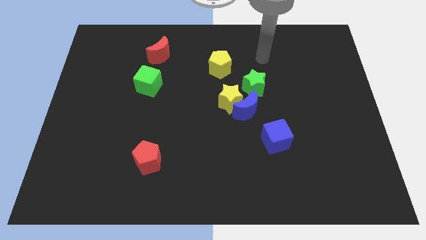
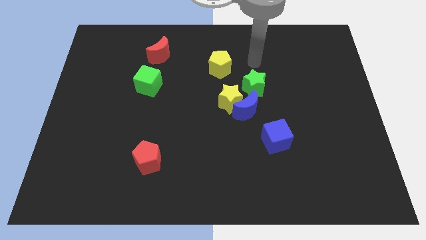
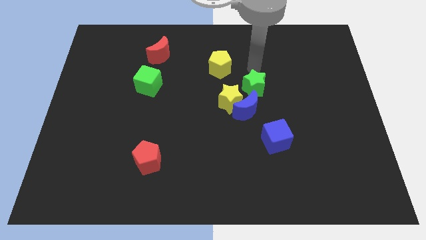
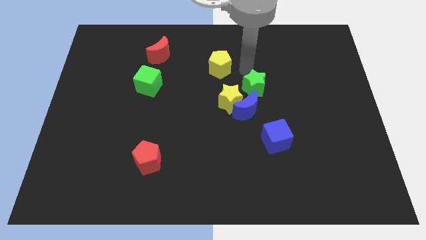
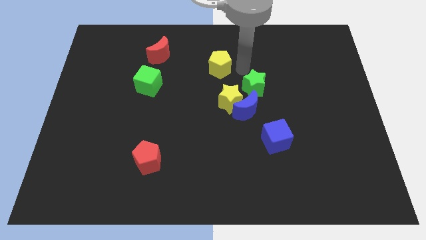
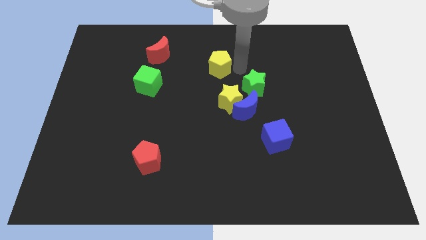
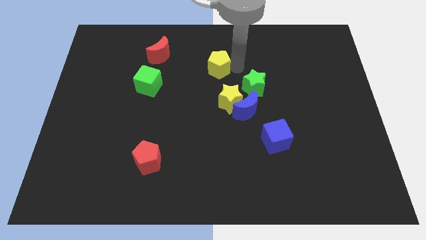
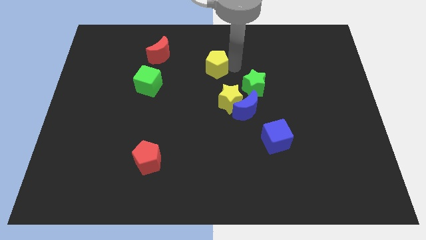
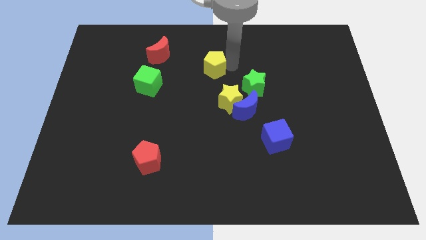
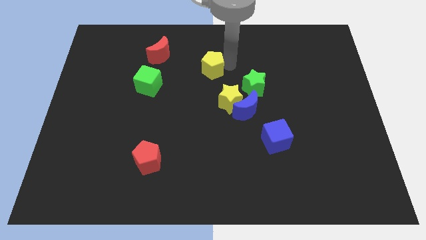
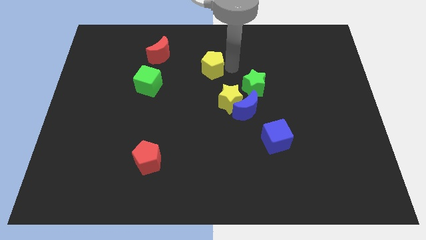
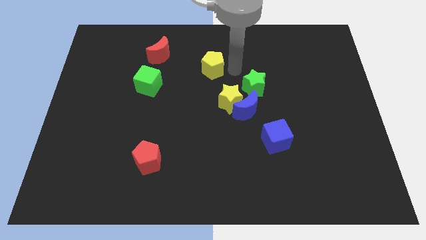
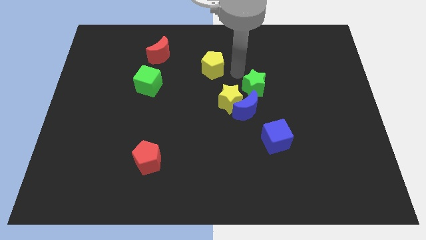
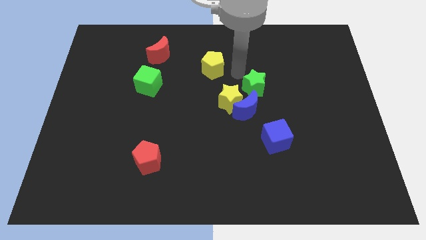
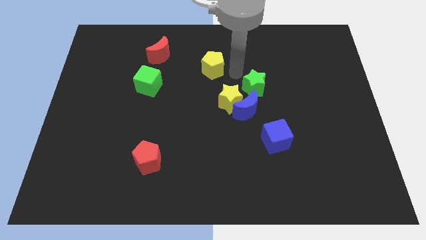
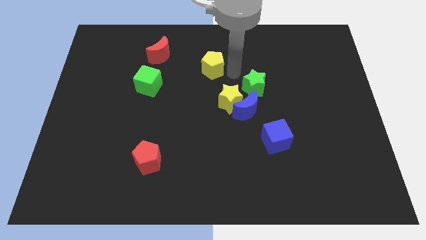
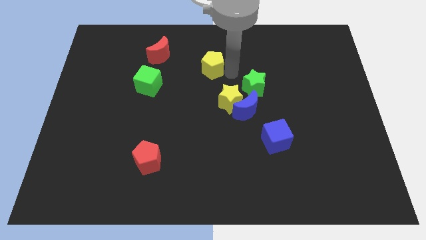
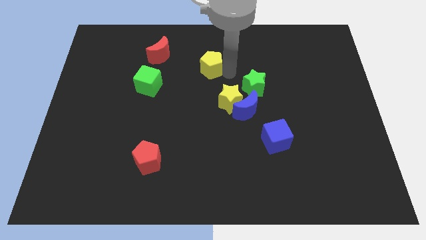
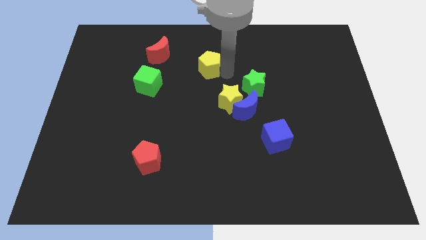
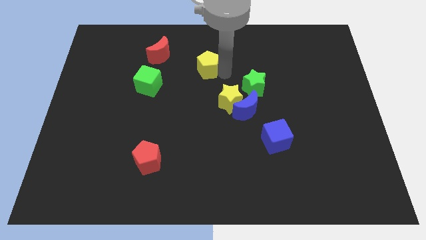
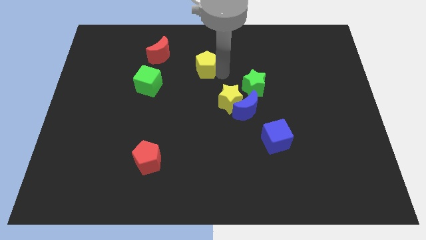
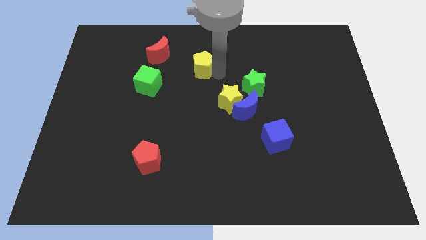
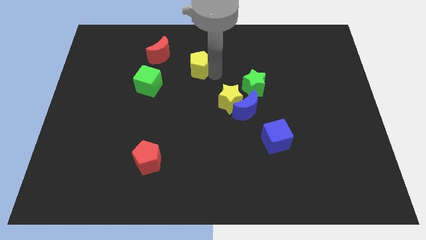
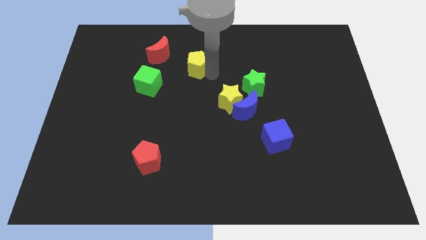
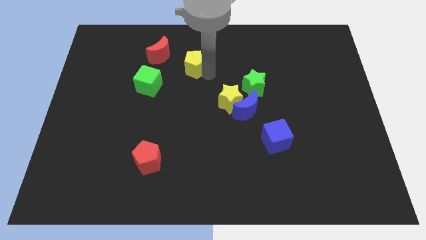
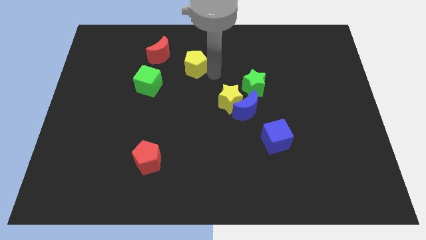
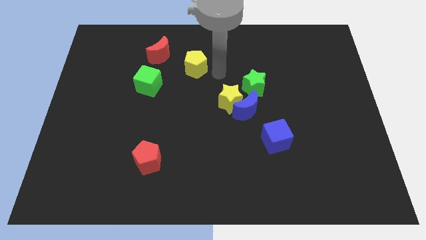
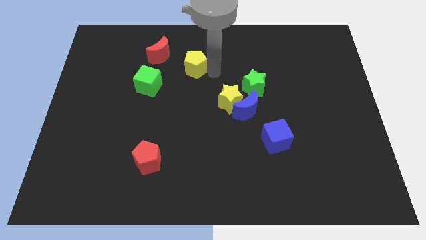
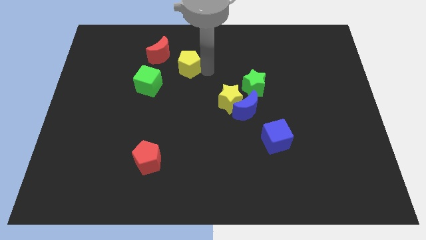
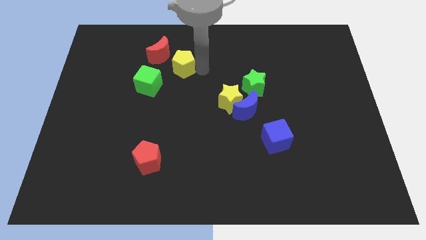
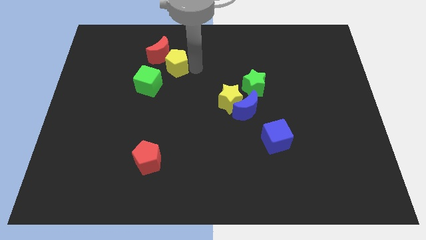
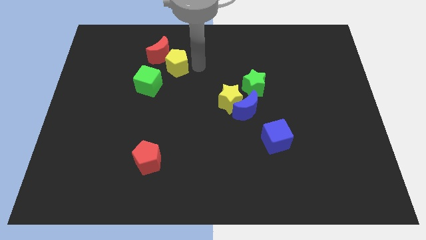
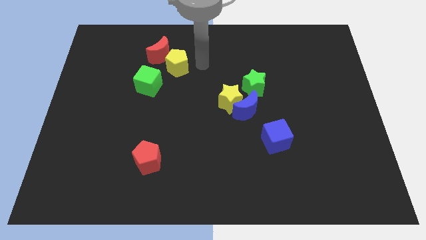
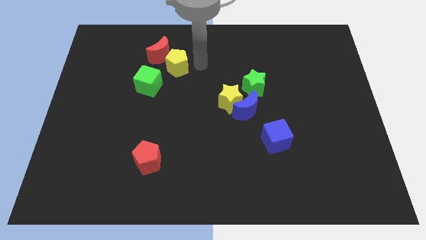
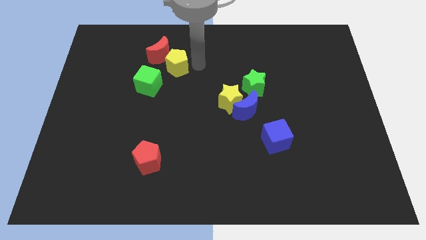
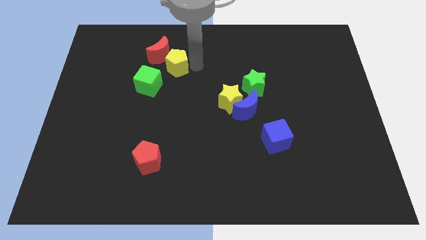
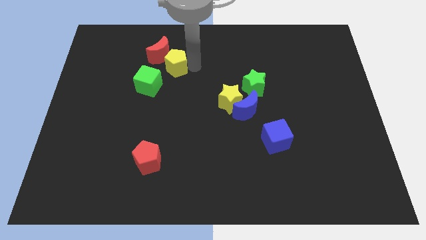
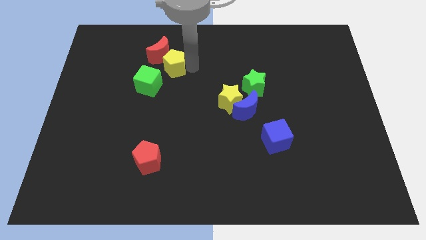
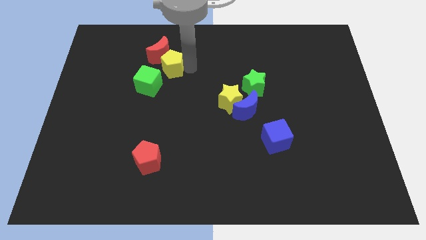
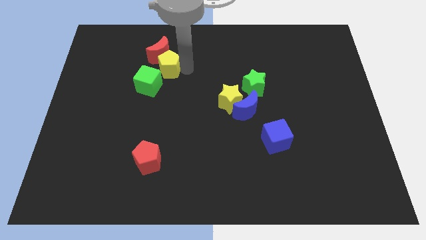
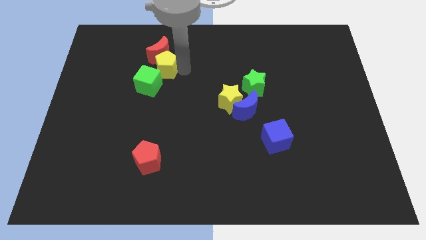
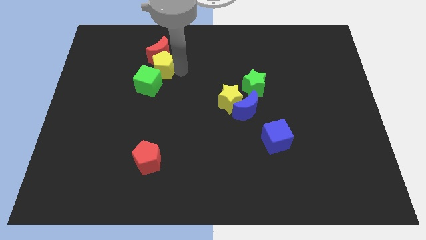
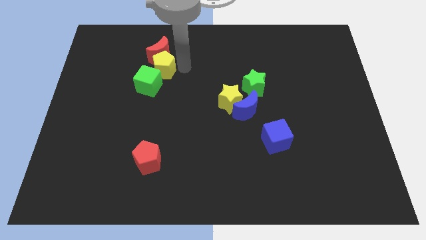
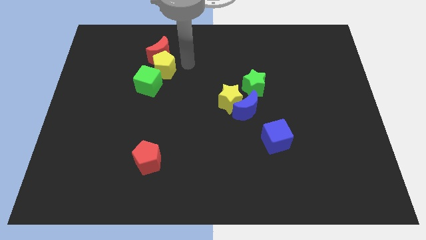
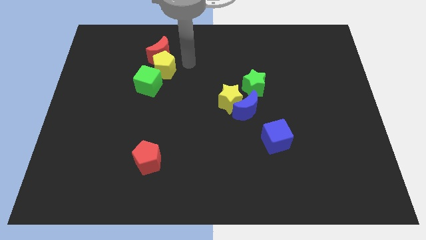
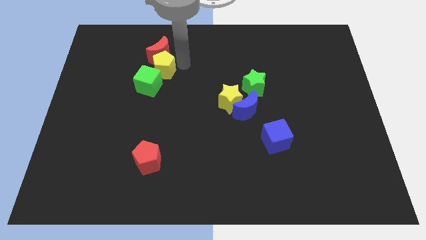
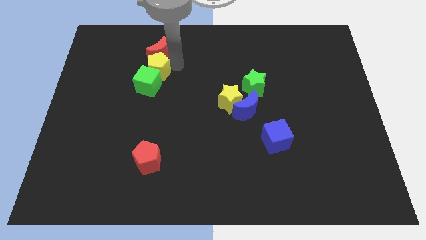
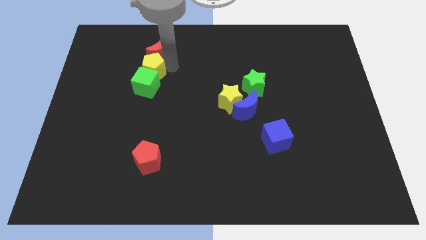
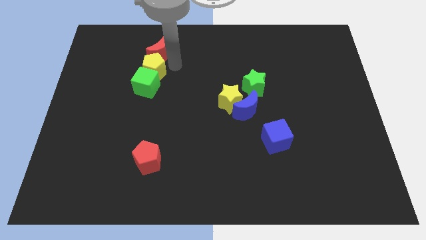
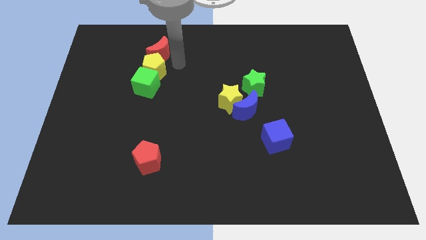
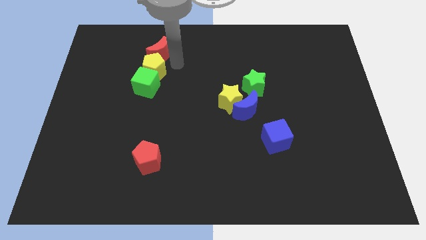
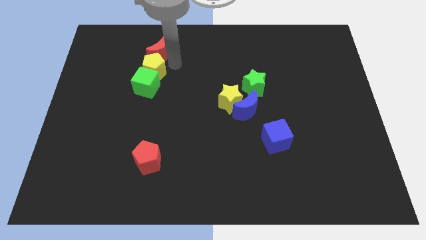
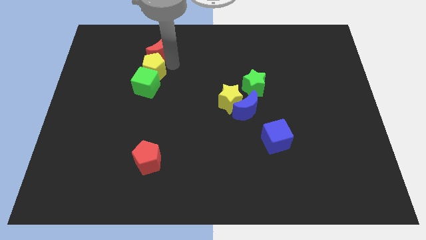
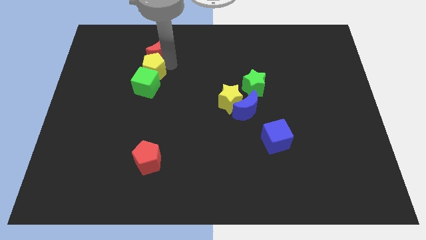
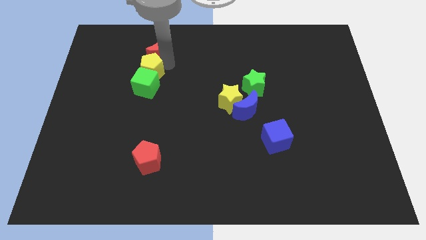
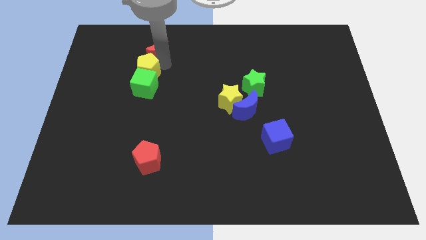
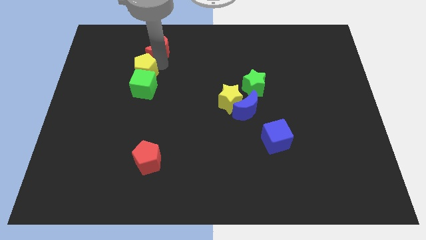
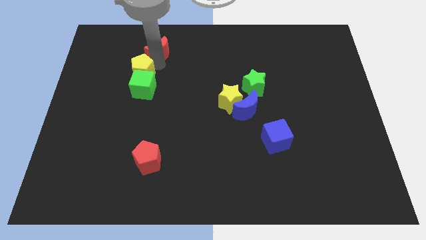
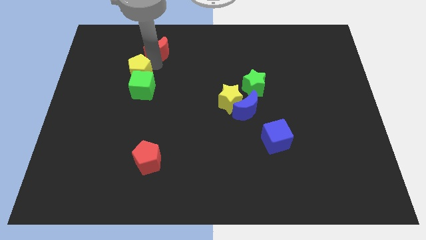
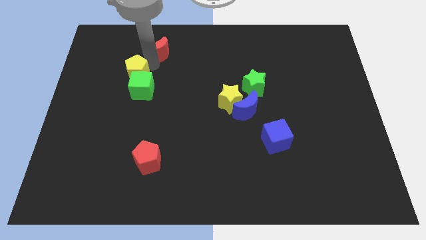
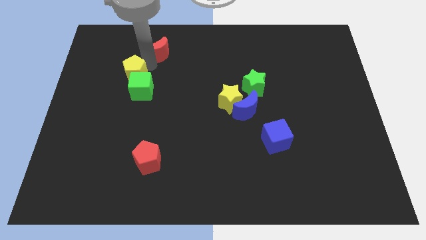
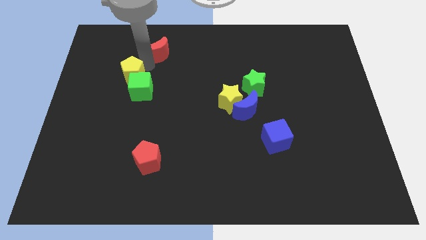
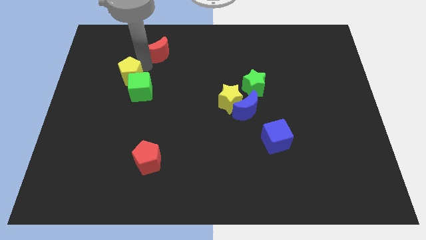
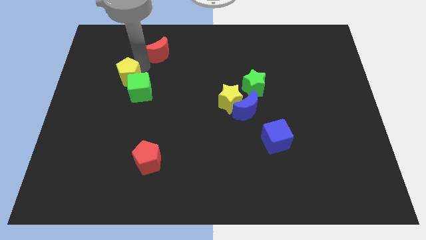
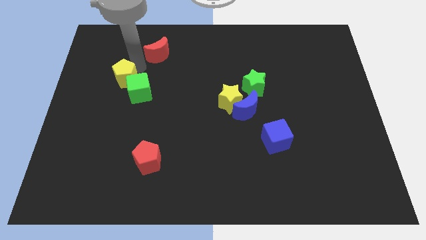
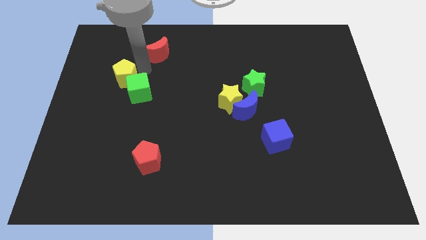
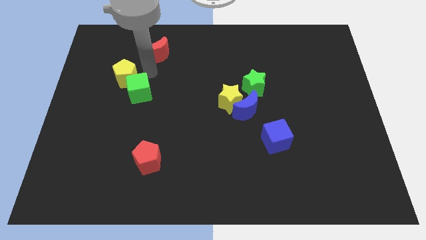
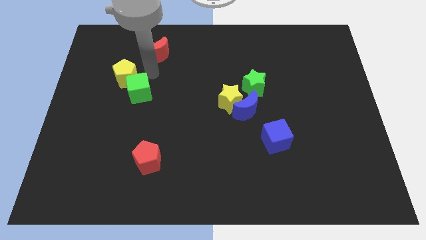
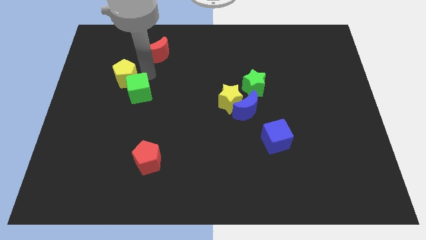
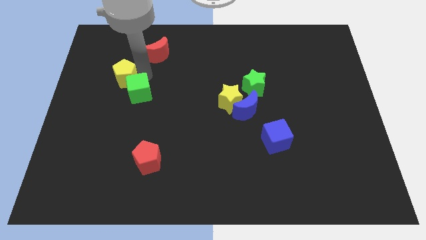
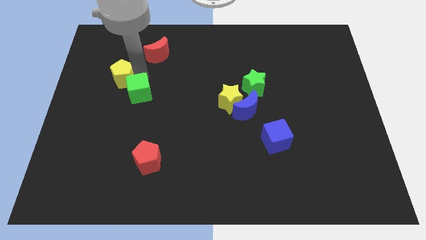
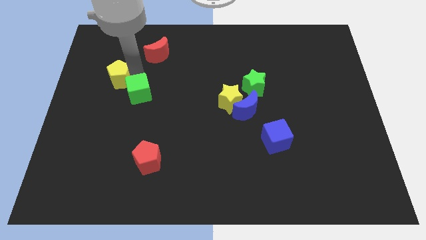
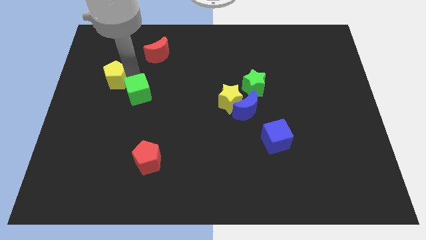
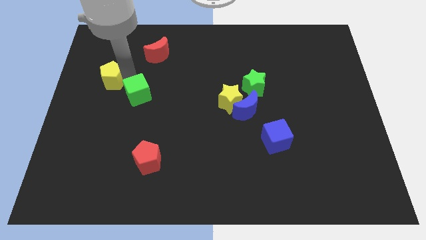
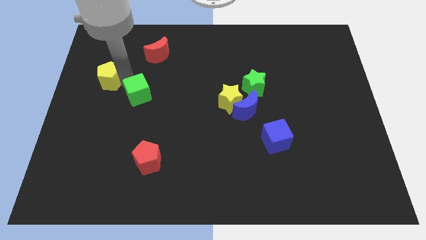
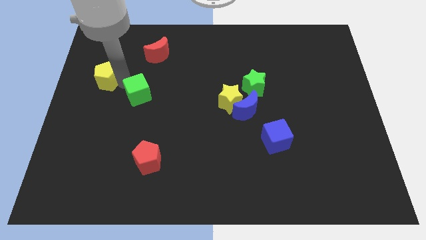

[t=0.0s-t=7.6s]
push the yellow pentagon to the center left
